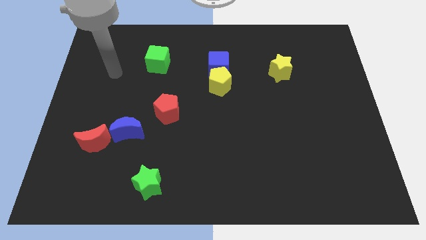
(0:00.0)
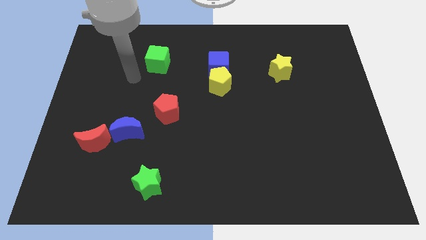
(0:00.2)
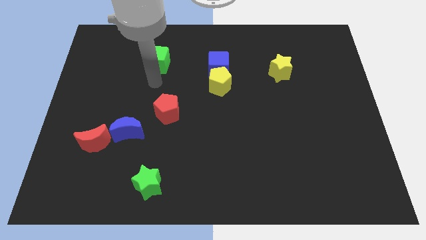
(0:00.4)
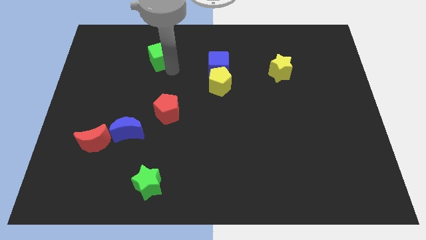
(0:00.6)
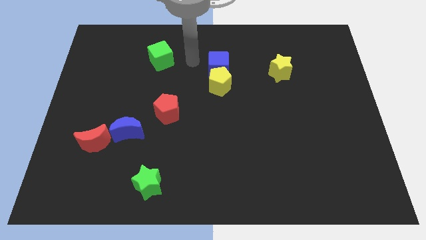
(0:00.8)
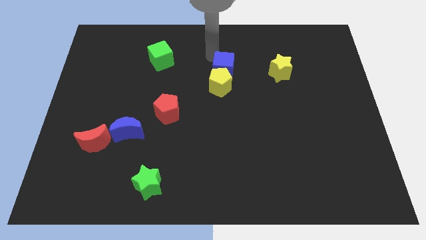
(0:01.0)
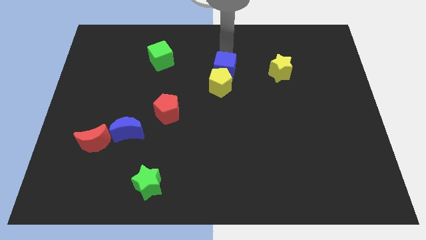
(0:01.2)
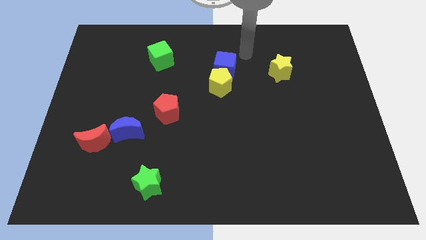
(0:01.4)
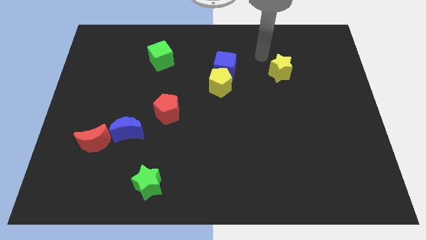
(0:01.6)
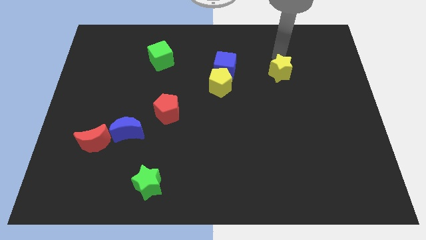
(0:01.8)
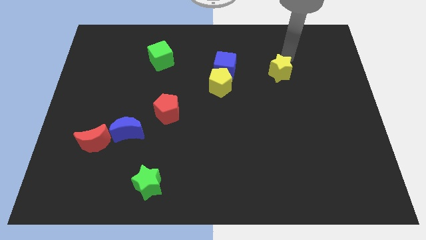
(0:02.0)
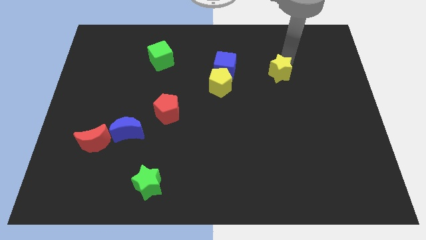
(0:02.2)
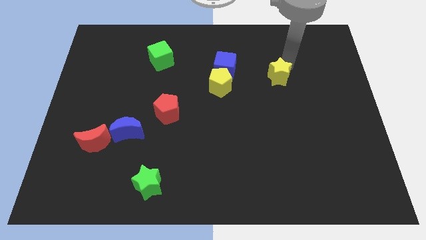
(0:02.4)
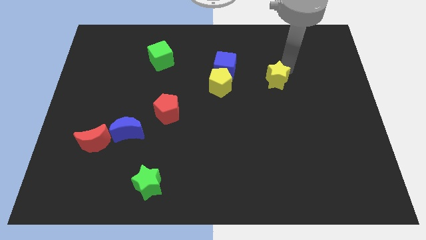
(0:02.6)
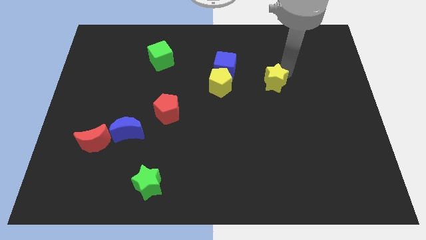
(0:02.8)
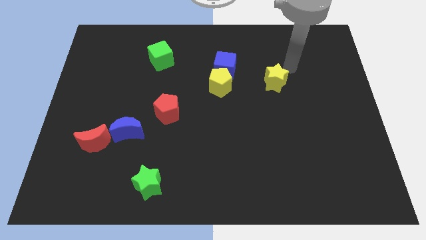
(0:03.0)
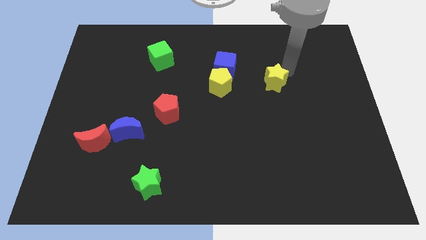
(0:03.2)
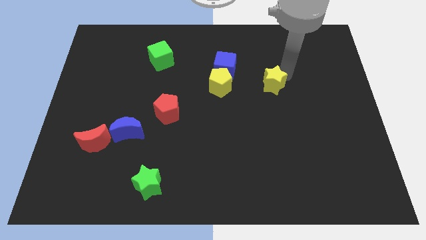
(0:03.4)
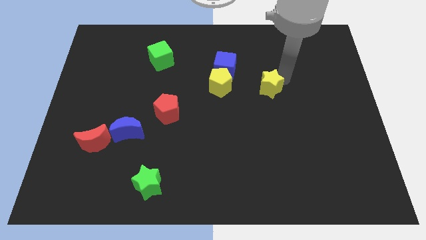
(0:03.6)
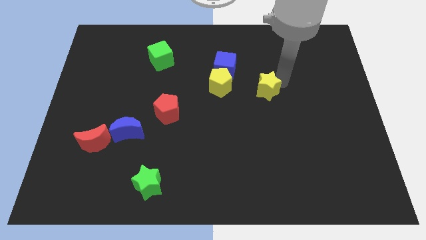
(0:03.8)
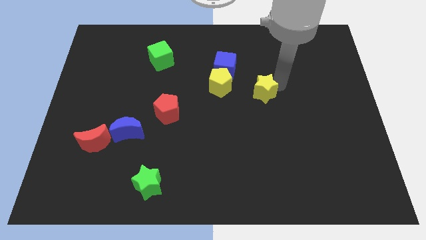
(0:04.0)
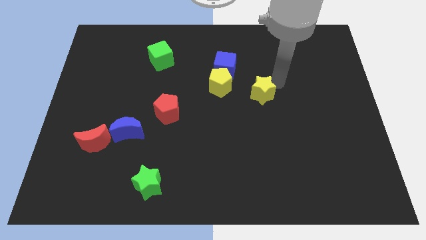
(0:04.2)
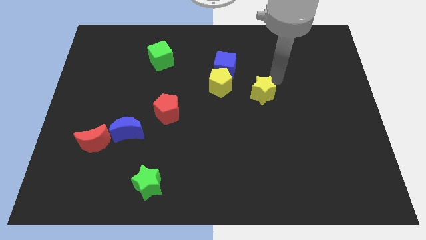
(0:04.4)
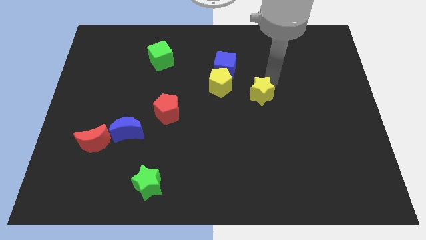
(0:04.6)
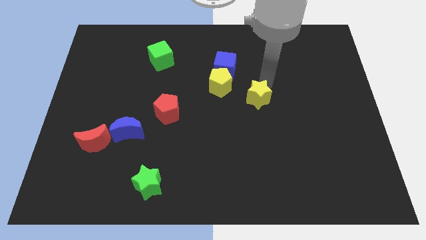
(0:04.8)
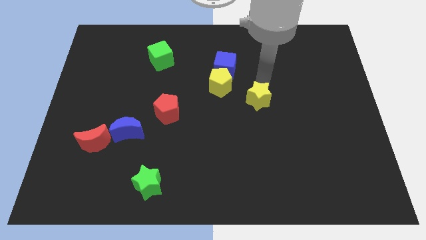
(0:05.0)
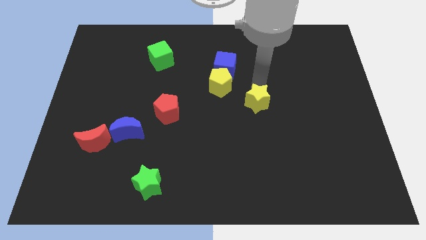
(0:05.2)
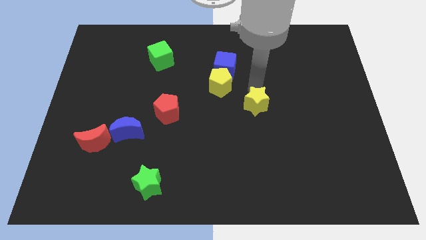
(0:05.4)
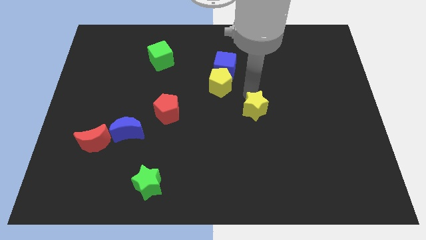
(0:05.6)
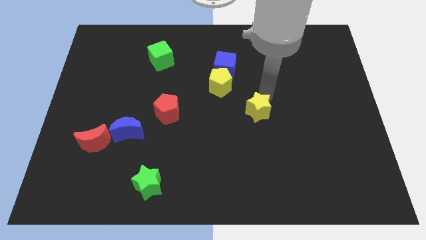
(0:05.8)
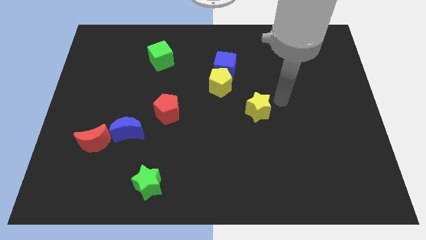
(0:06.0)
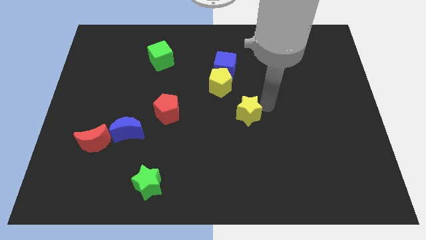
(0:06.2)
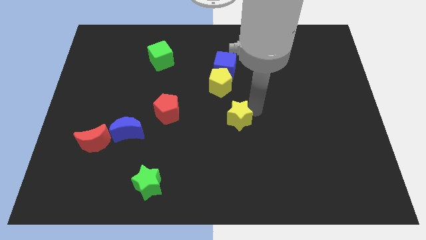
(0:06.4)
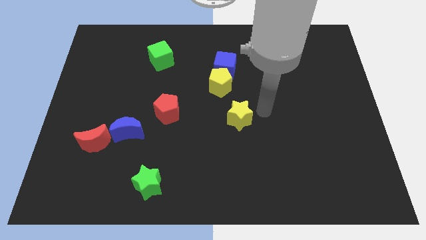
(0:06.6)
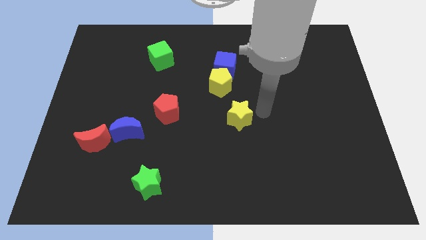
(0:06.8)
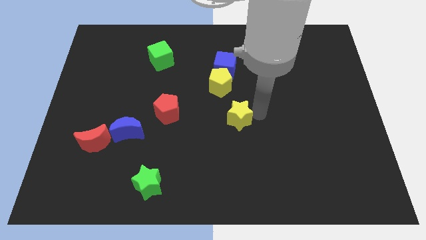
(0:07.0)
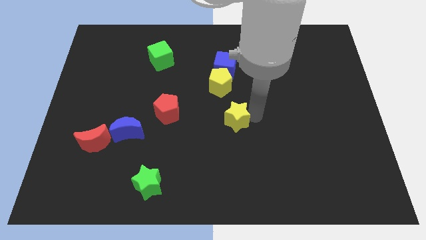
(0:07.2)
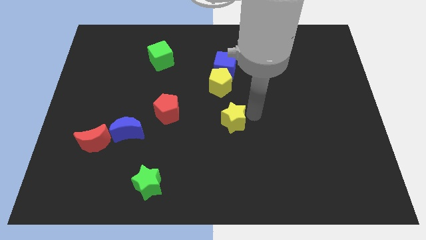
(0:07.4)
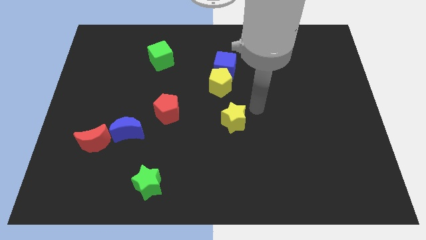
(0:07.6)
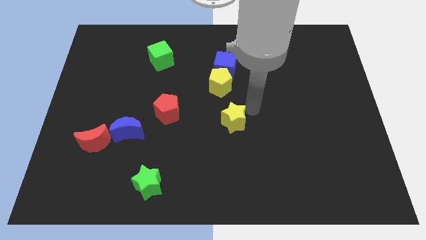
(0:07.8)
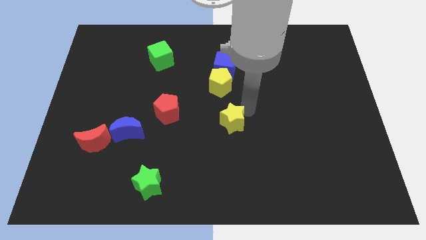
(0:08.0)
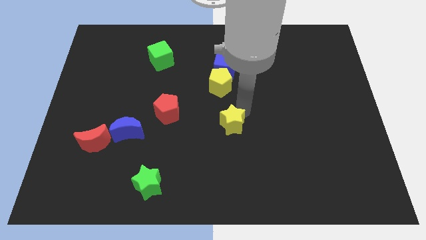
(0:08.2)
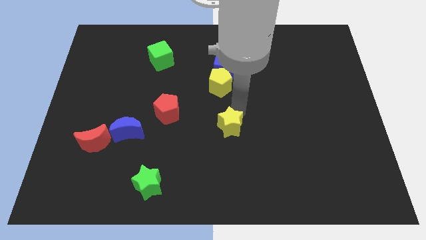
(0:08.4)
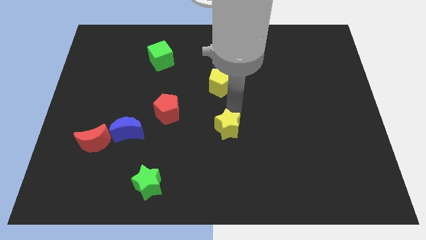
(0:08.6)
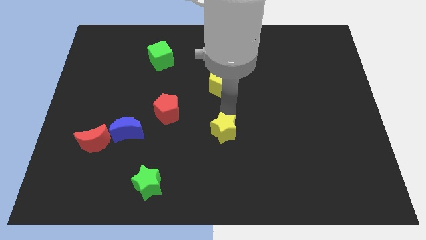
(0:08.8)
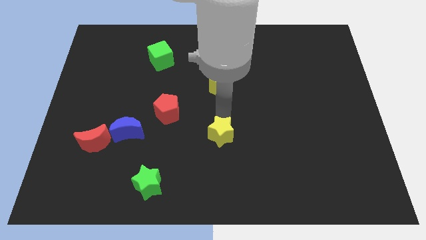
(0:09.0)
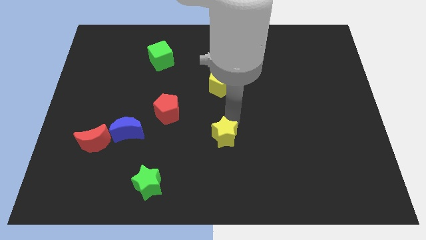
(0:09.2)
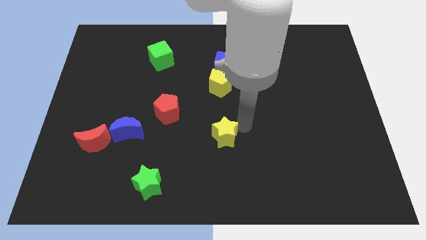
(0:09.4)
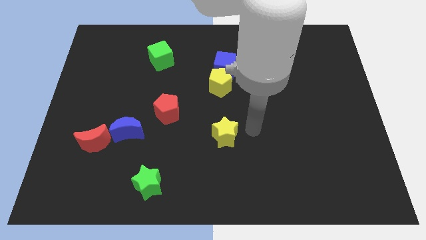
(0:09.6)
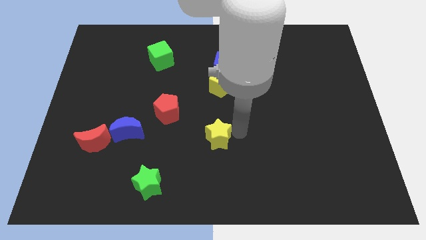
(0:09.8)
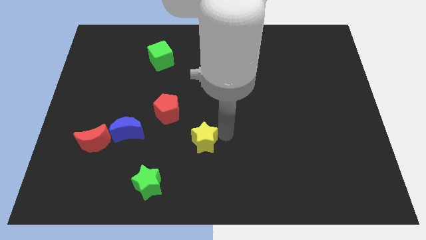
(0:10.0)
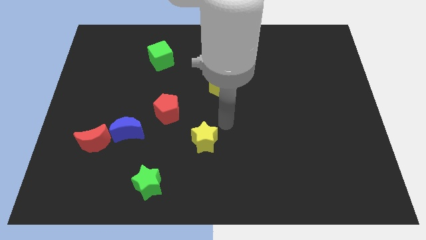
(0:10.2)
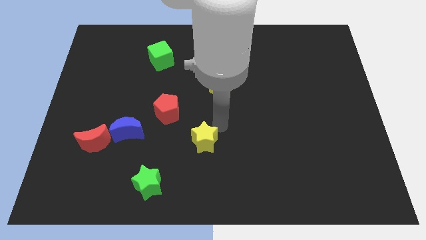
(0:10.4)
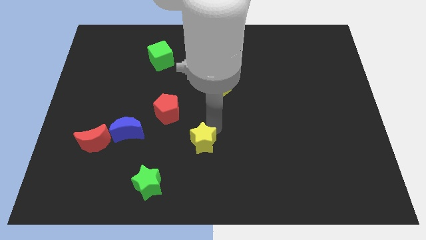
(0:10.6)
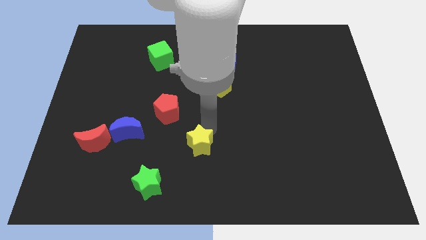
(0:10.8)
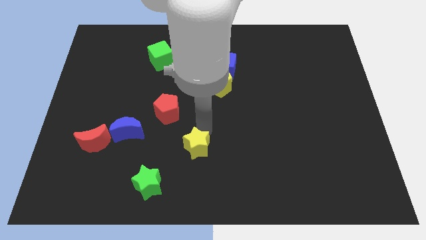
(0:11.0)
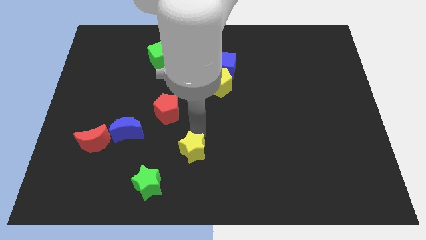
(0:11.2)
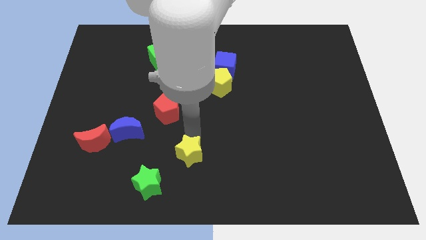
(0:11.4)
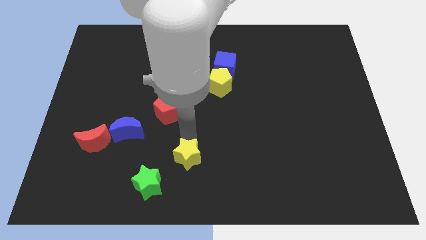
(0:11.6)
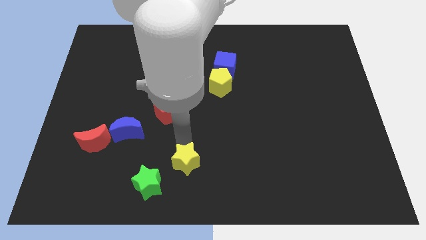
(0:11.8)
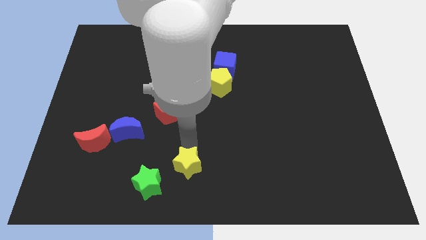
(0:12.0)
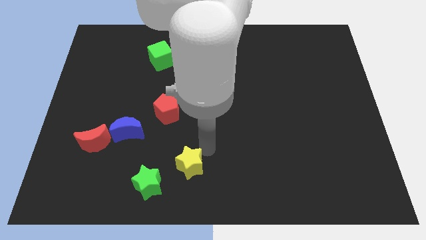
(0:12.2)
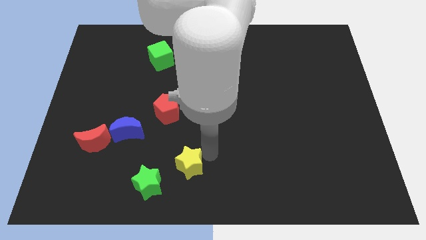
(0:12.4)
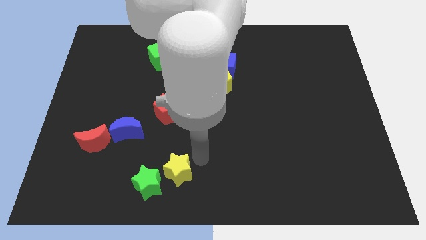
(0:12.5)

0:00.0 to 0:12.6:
move the yellow star next to the green star

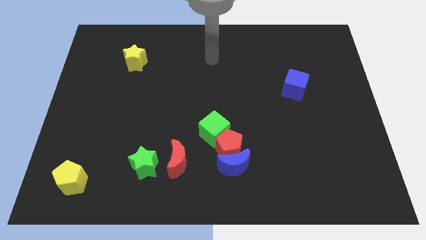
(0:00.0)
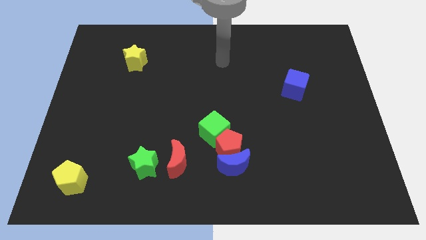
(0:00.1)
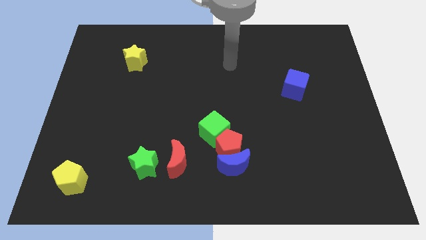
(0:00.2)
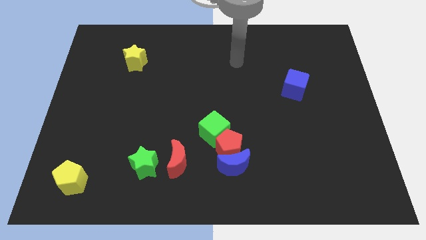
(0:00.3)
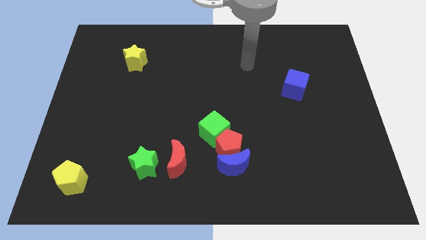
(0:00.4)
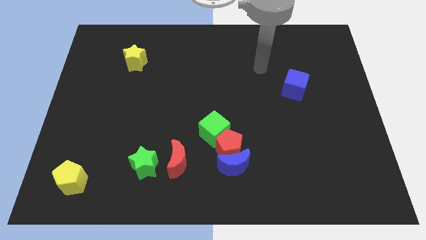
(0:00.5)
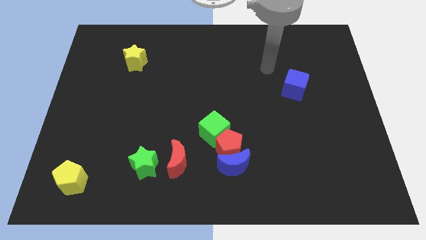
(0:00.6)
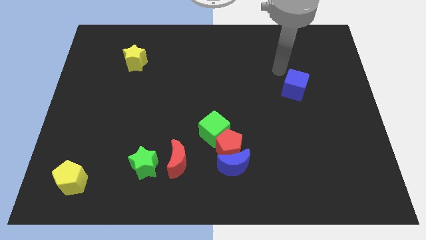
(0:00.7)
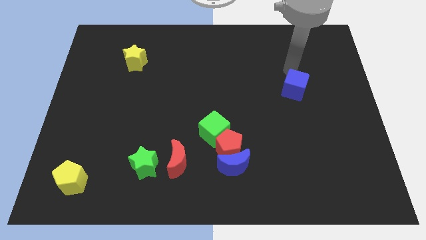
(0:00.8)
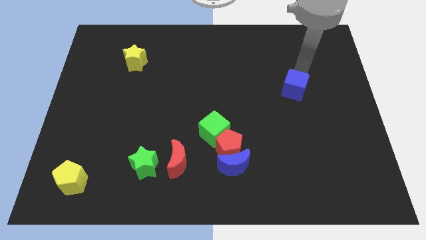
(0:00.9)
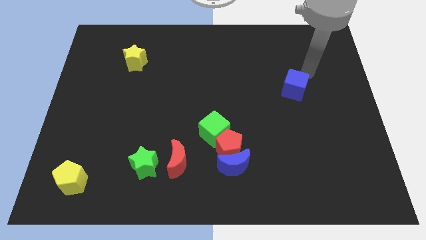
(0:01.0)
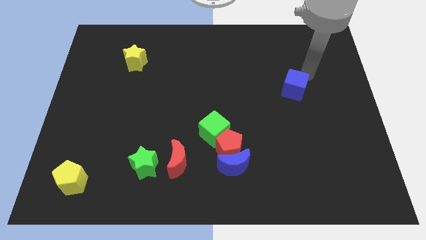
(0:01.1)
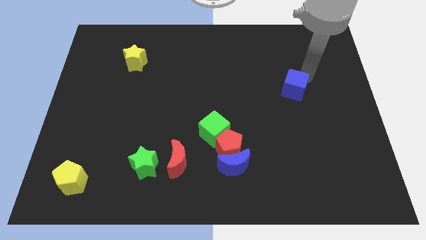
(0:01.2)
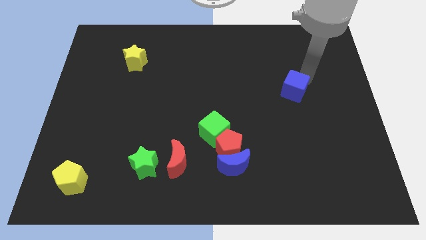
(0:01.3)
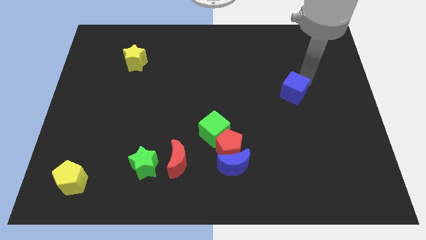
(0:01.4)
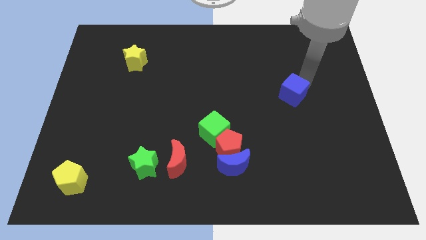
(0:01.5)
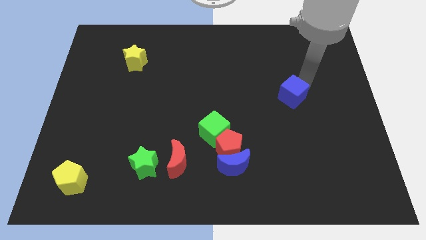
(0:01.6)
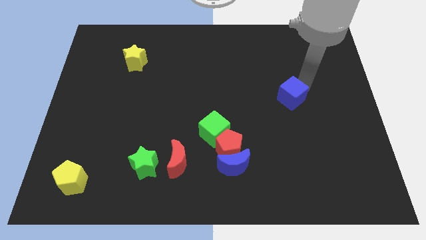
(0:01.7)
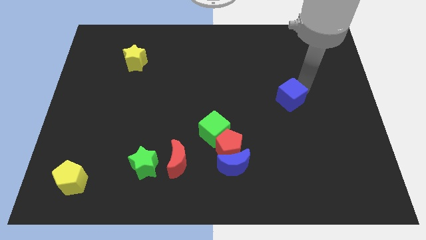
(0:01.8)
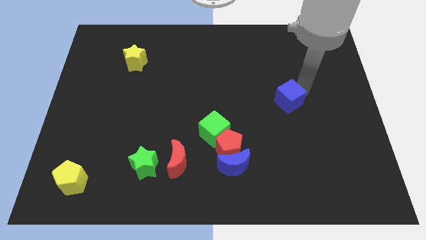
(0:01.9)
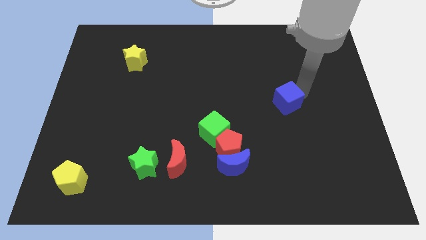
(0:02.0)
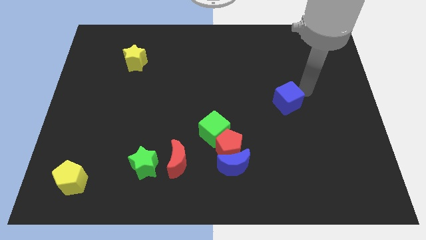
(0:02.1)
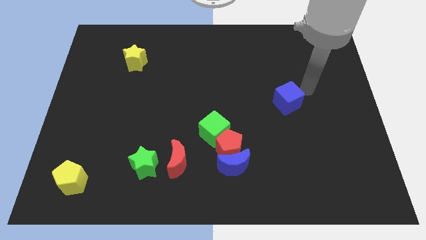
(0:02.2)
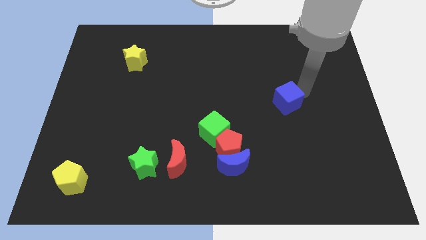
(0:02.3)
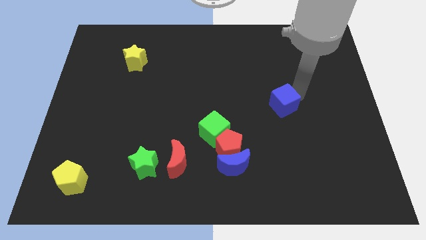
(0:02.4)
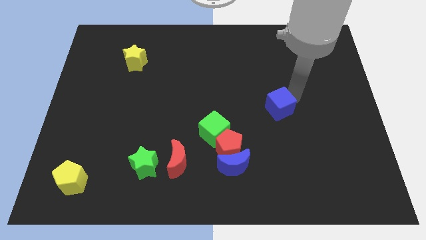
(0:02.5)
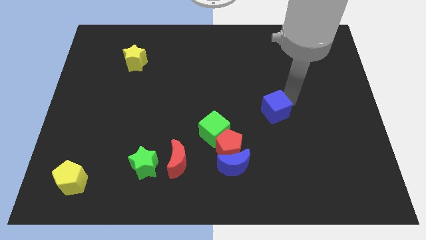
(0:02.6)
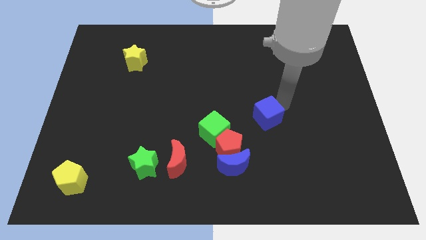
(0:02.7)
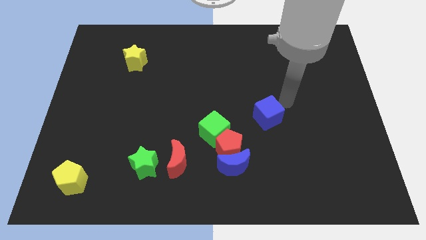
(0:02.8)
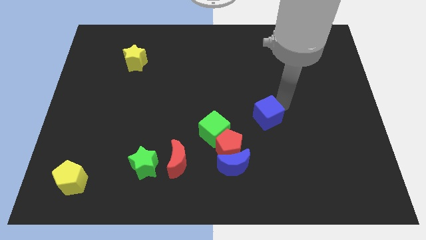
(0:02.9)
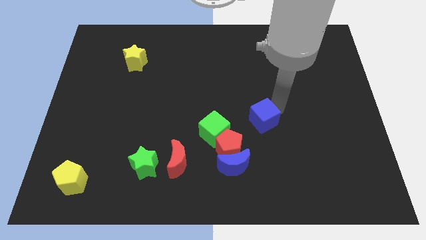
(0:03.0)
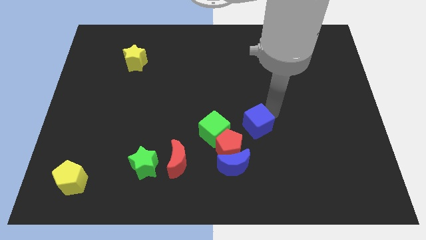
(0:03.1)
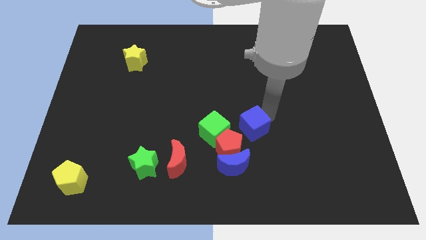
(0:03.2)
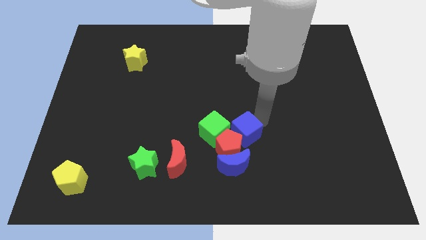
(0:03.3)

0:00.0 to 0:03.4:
put the blue cube to the red pentagon
